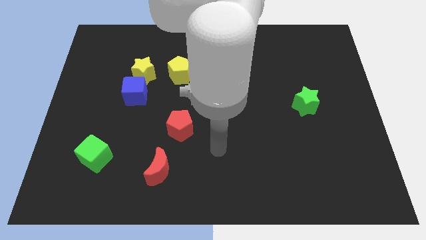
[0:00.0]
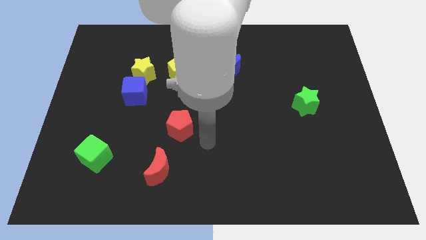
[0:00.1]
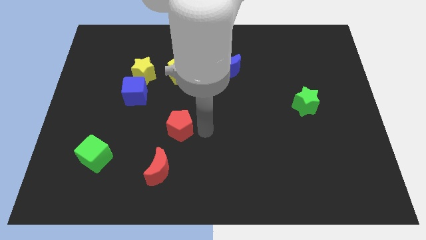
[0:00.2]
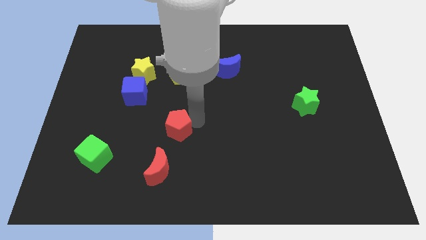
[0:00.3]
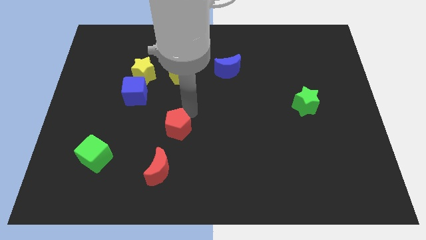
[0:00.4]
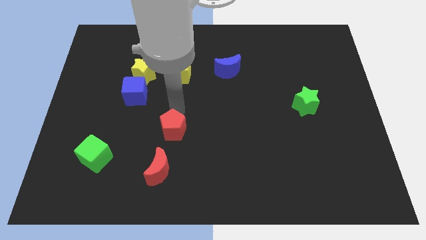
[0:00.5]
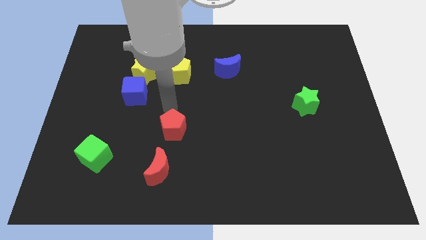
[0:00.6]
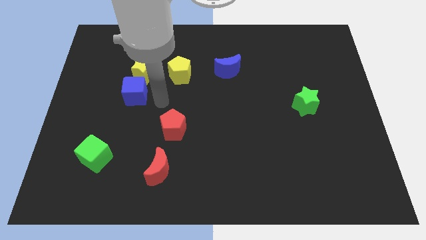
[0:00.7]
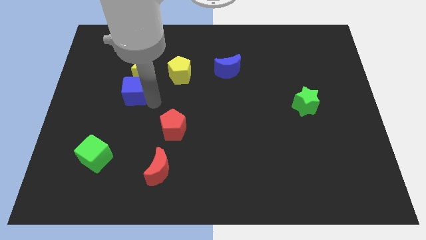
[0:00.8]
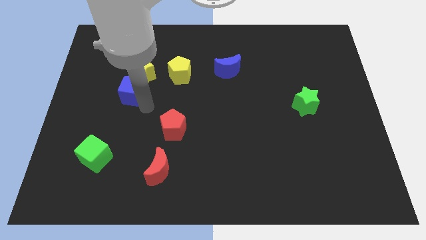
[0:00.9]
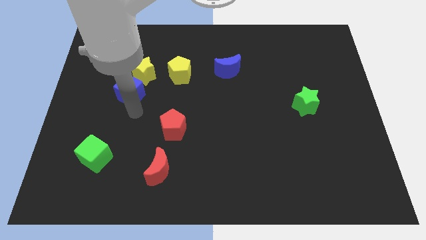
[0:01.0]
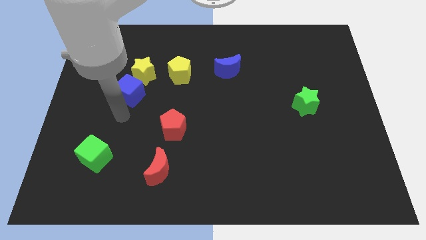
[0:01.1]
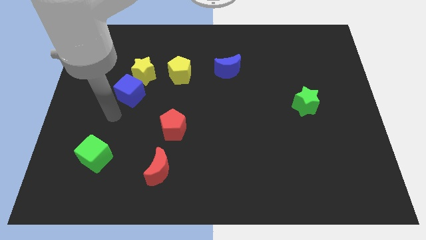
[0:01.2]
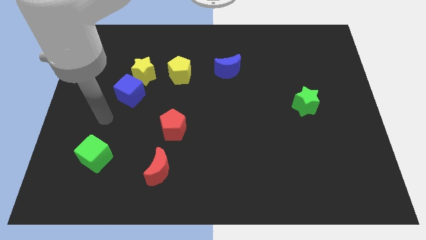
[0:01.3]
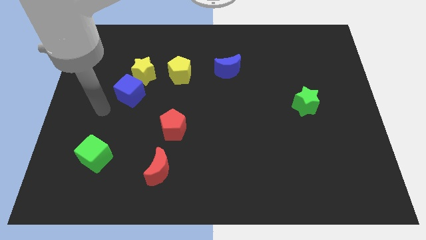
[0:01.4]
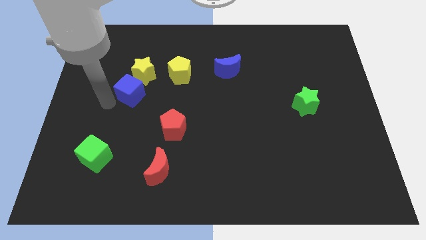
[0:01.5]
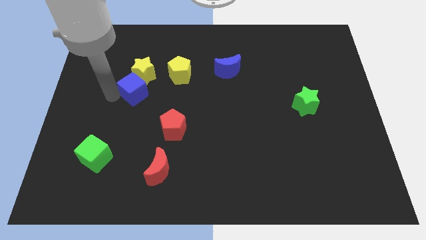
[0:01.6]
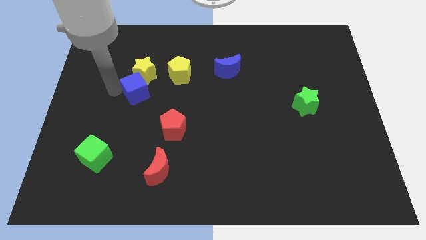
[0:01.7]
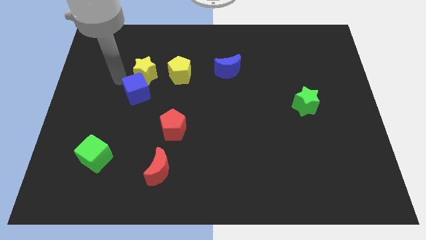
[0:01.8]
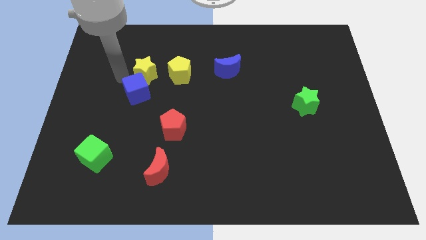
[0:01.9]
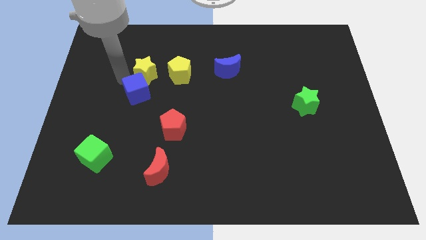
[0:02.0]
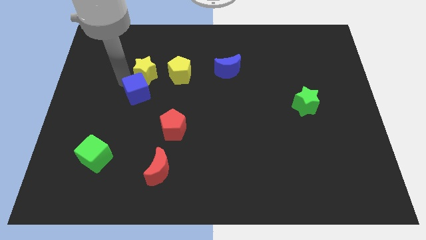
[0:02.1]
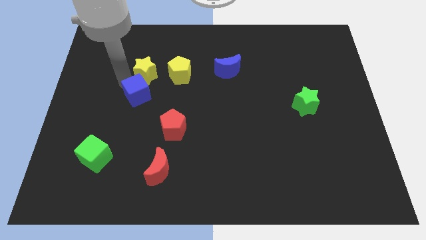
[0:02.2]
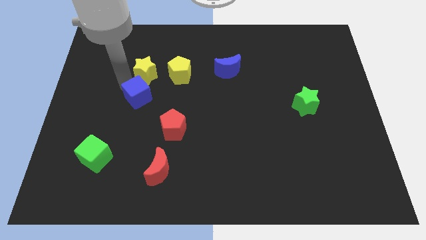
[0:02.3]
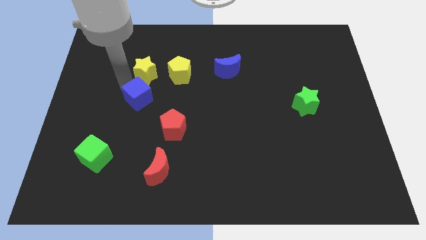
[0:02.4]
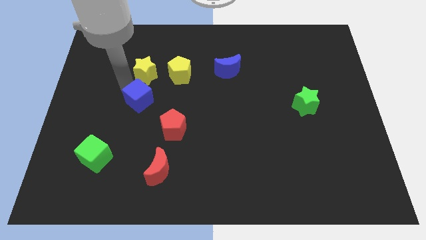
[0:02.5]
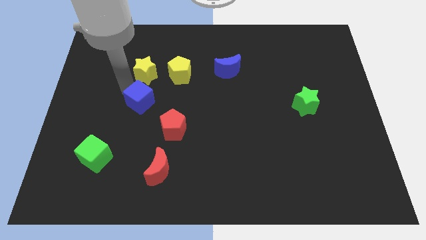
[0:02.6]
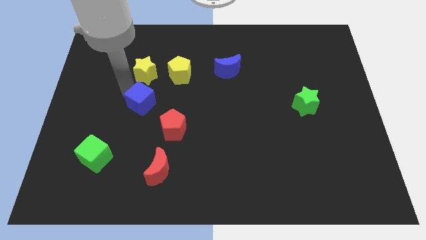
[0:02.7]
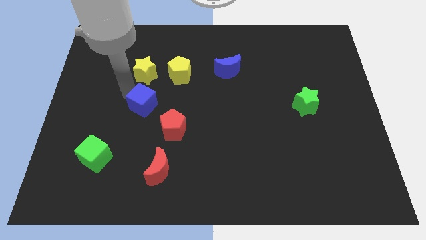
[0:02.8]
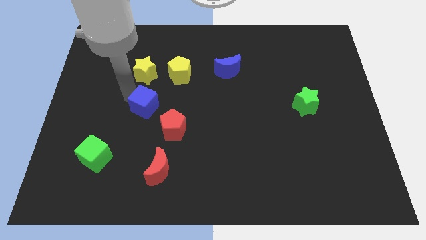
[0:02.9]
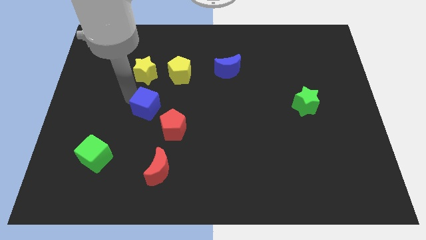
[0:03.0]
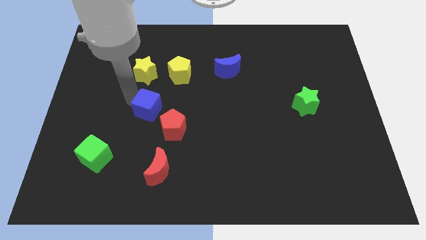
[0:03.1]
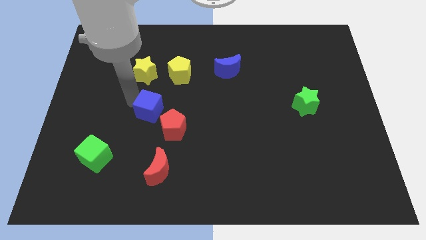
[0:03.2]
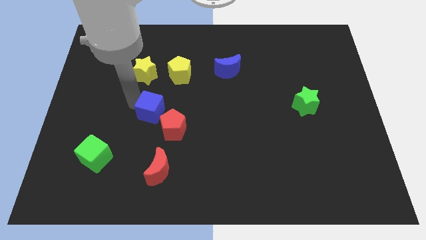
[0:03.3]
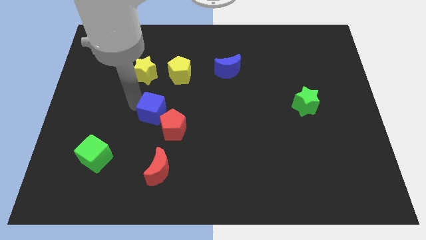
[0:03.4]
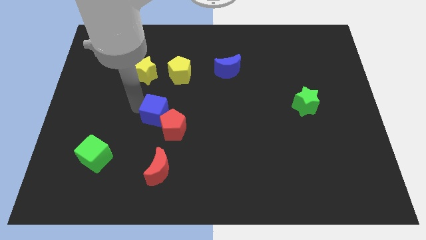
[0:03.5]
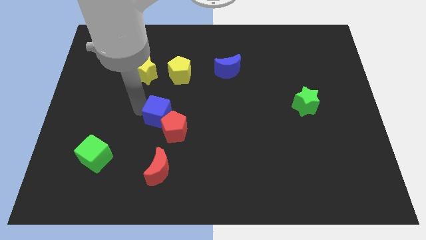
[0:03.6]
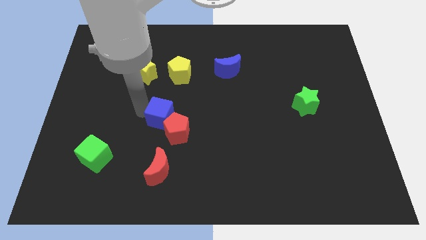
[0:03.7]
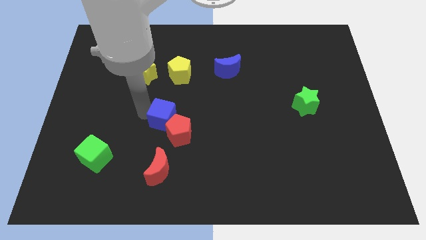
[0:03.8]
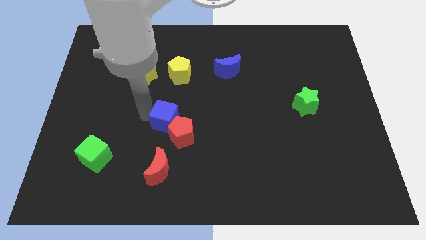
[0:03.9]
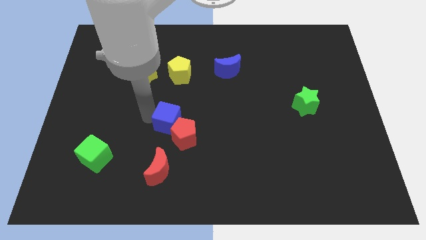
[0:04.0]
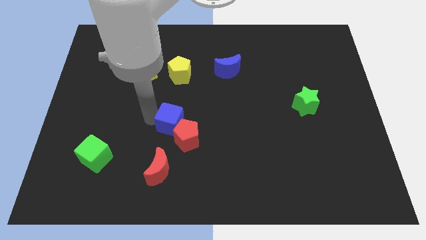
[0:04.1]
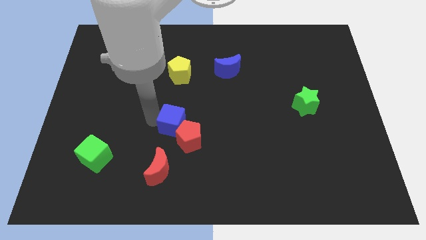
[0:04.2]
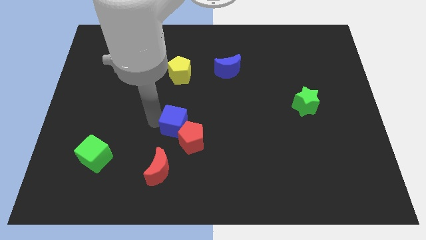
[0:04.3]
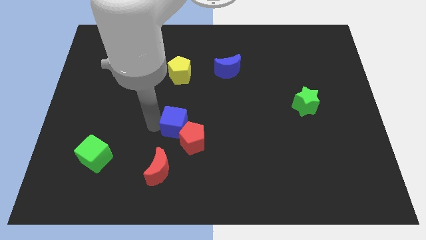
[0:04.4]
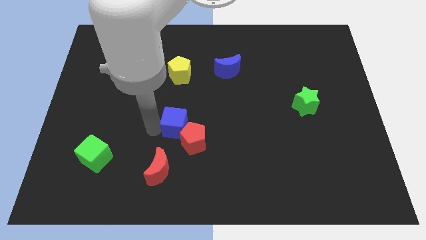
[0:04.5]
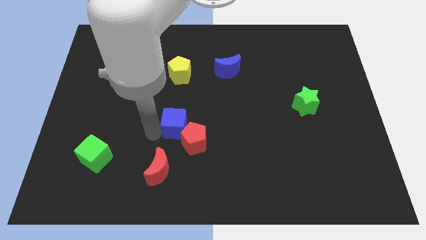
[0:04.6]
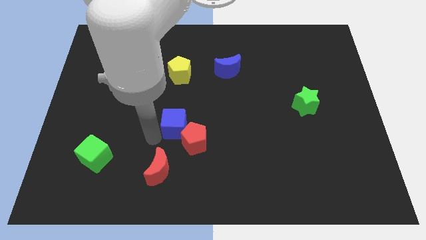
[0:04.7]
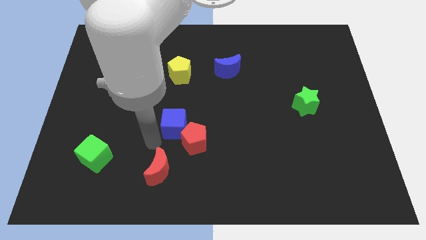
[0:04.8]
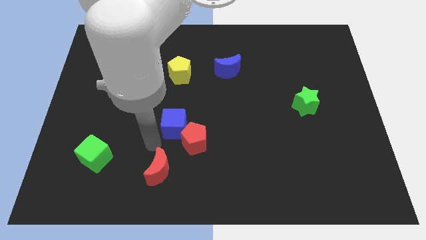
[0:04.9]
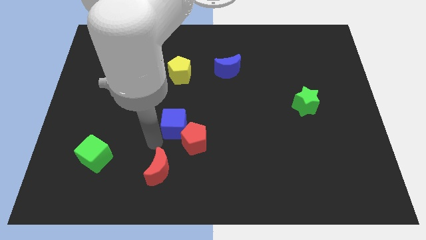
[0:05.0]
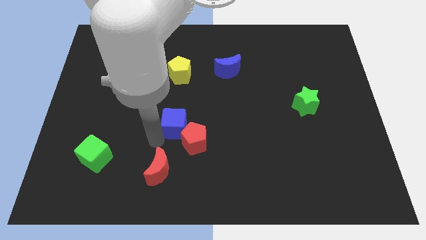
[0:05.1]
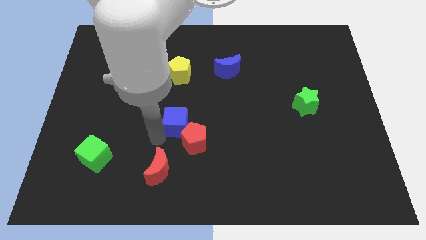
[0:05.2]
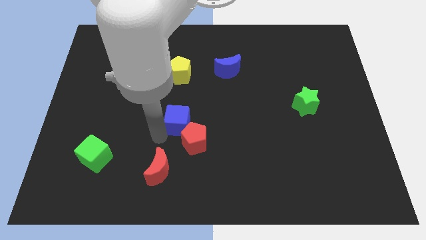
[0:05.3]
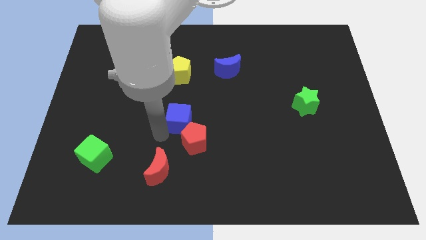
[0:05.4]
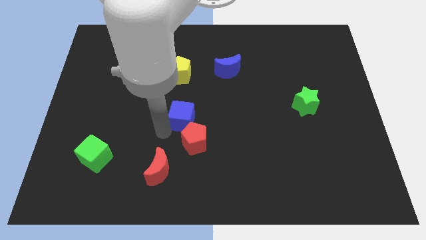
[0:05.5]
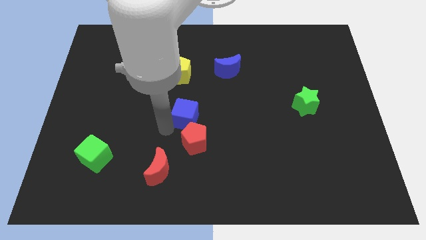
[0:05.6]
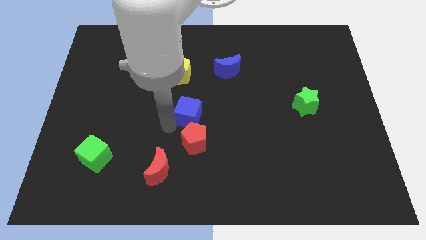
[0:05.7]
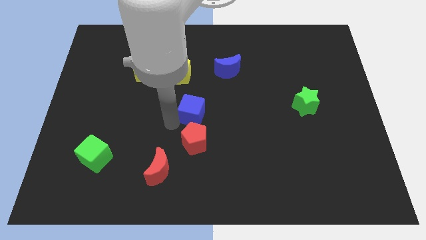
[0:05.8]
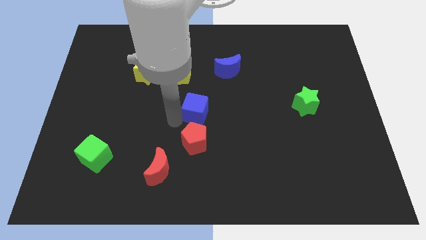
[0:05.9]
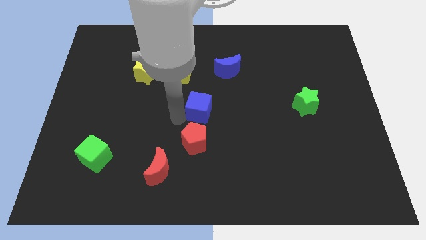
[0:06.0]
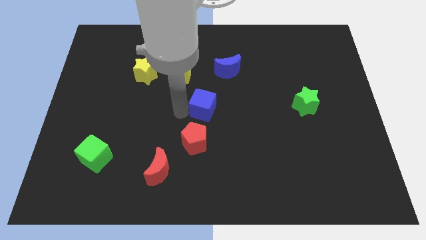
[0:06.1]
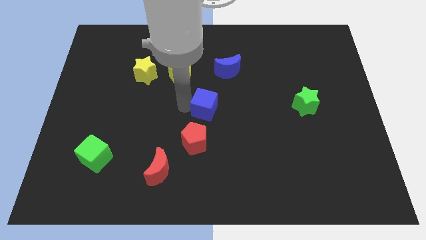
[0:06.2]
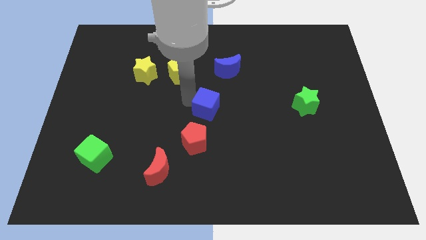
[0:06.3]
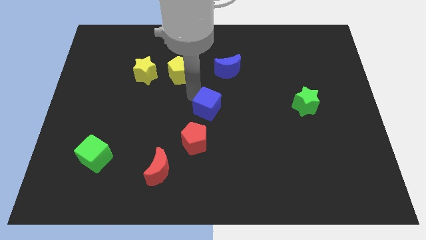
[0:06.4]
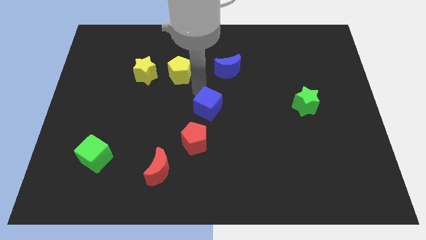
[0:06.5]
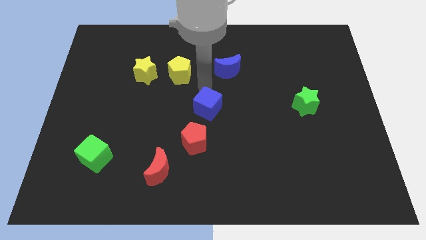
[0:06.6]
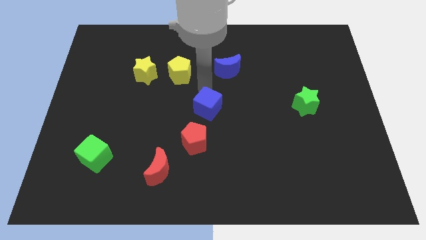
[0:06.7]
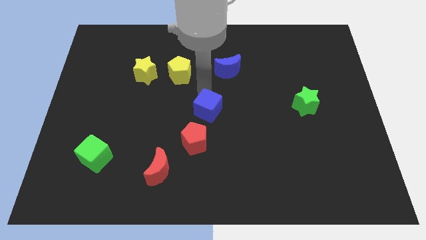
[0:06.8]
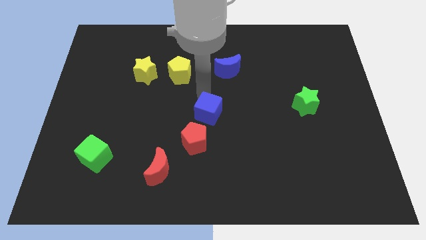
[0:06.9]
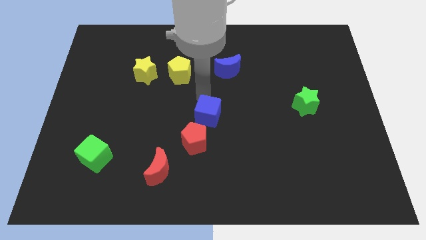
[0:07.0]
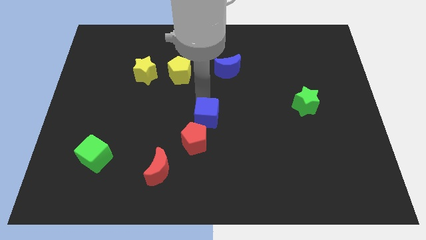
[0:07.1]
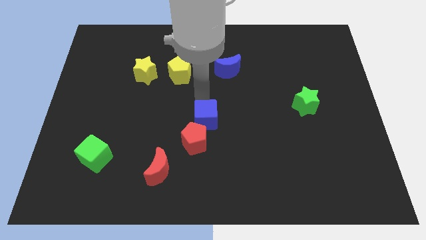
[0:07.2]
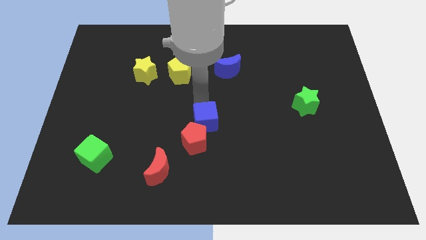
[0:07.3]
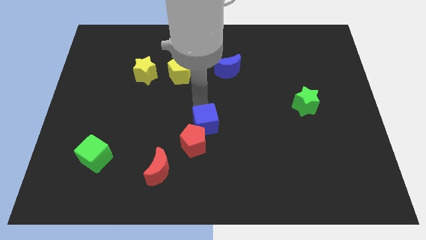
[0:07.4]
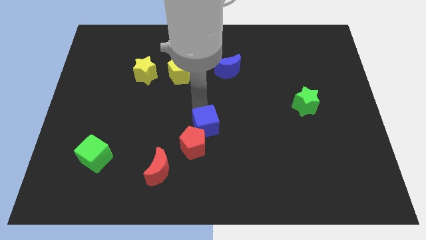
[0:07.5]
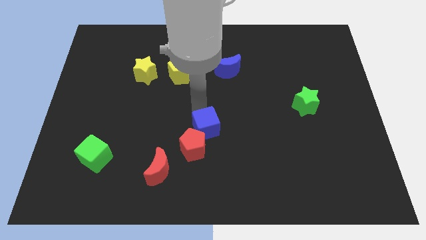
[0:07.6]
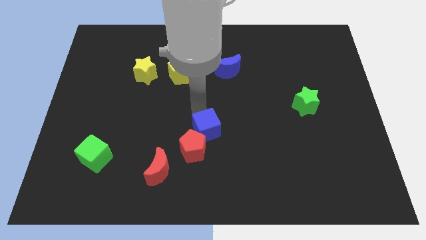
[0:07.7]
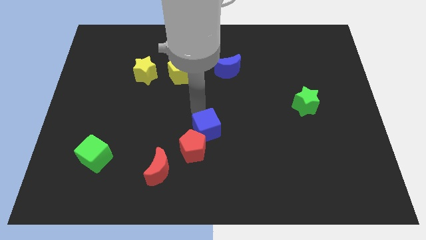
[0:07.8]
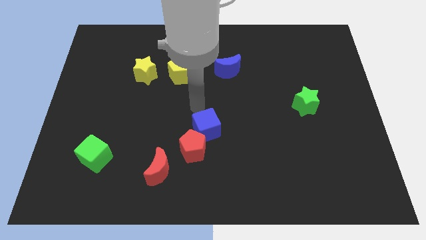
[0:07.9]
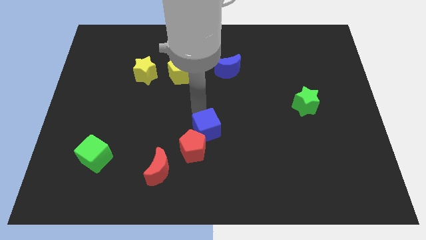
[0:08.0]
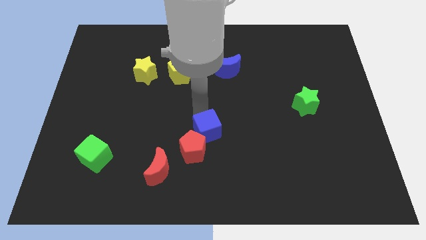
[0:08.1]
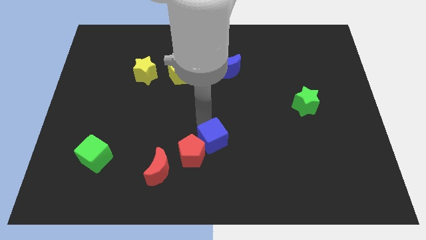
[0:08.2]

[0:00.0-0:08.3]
push the blue cube diagonally down and to the right

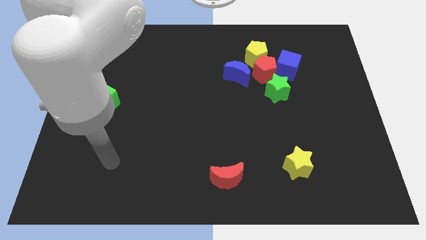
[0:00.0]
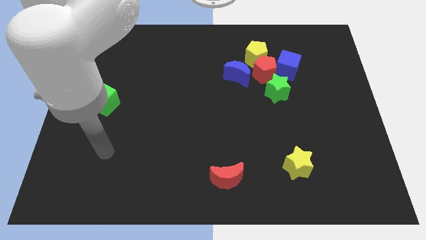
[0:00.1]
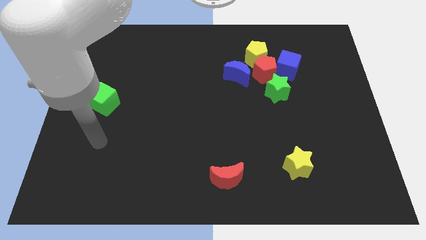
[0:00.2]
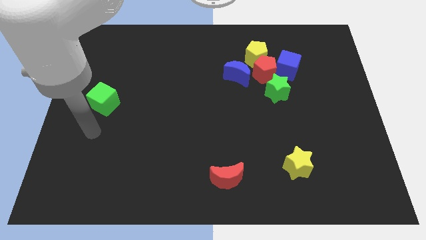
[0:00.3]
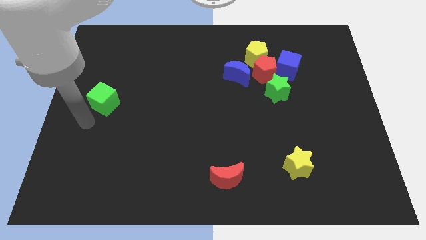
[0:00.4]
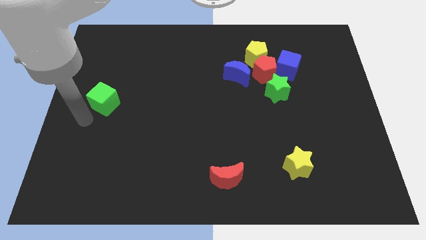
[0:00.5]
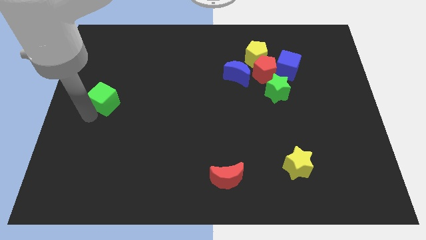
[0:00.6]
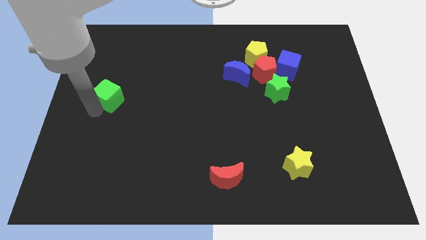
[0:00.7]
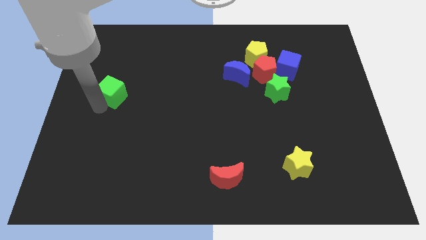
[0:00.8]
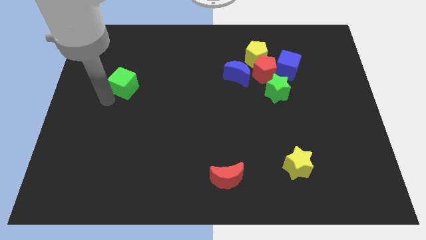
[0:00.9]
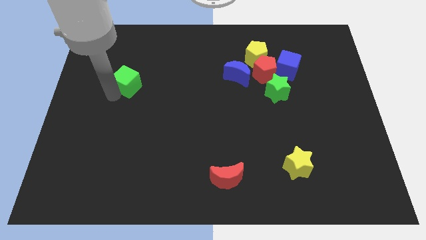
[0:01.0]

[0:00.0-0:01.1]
slightly push the green cube up and right diagonally
